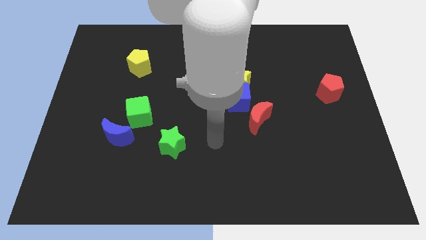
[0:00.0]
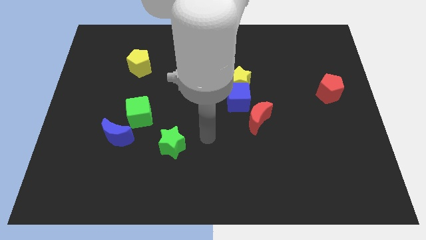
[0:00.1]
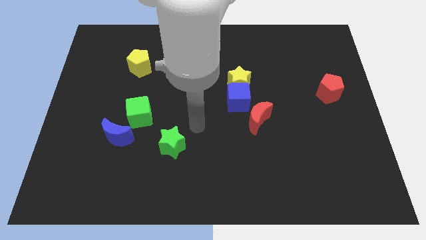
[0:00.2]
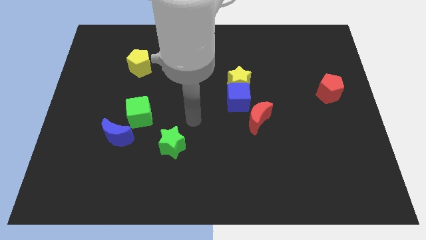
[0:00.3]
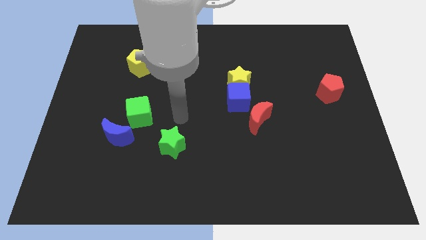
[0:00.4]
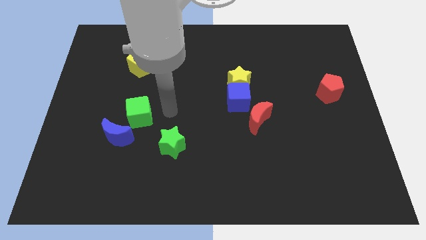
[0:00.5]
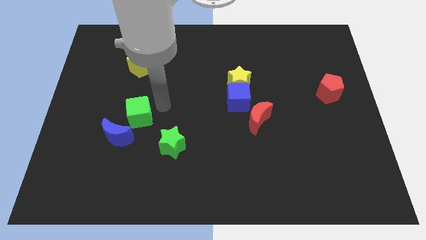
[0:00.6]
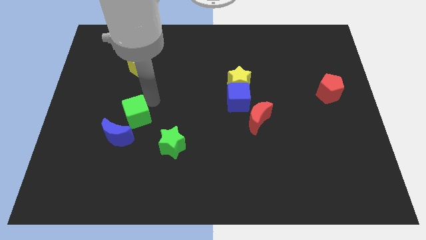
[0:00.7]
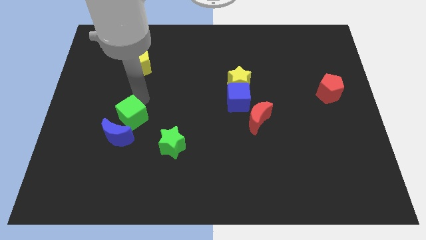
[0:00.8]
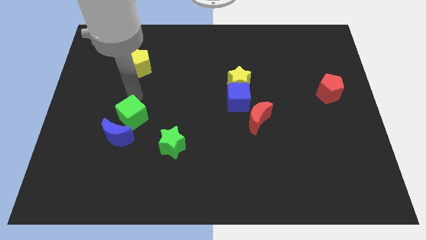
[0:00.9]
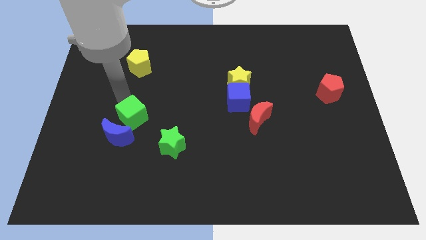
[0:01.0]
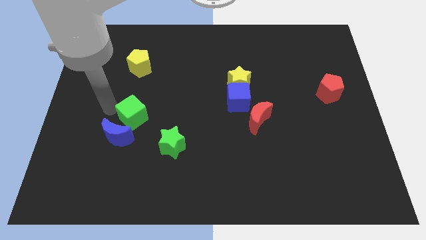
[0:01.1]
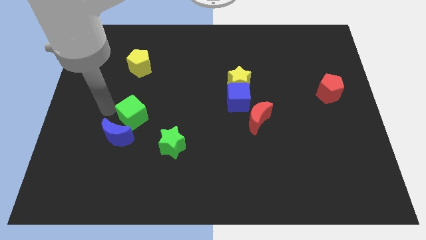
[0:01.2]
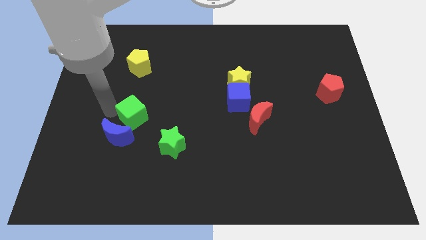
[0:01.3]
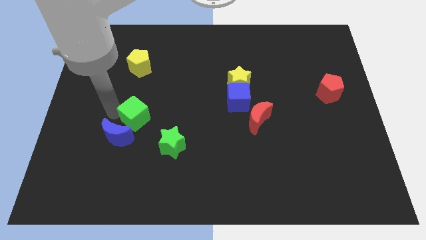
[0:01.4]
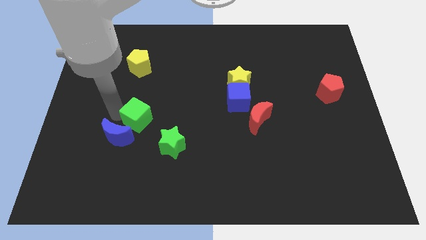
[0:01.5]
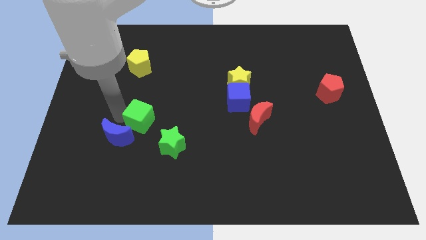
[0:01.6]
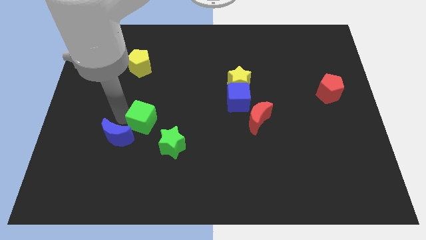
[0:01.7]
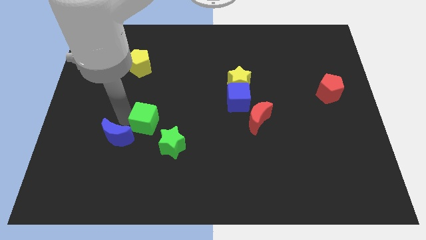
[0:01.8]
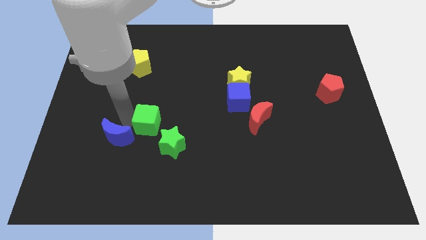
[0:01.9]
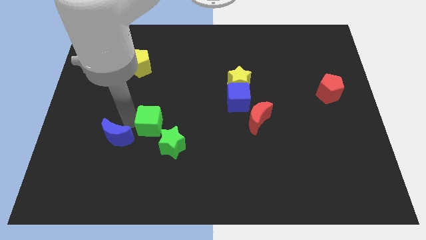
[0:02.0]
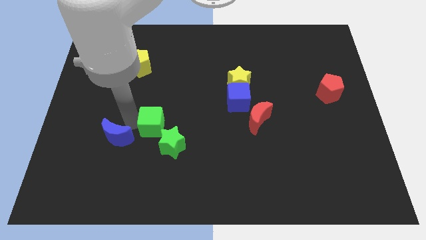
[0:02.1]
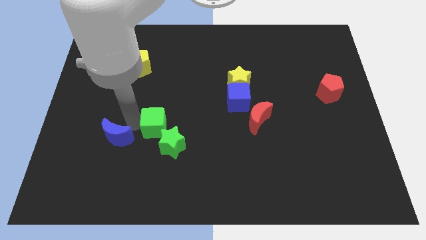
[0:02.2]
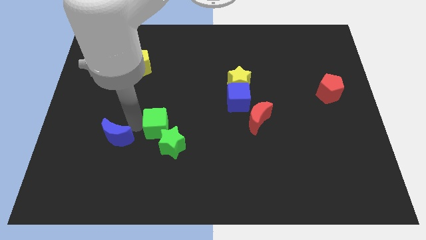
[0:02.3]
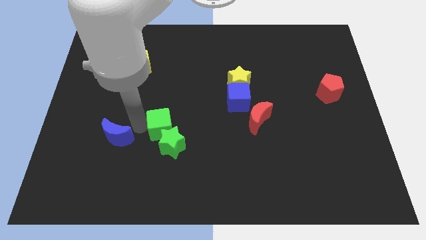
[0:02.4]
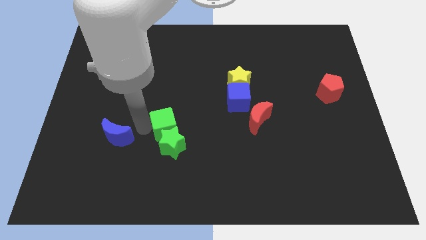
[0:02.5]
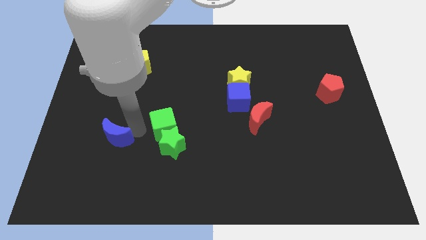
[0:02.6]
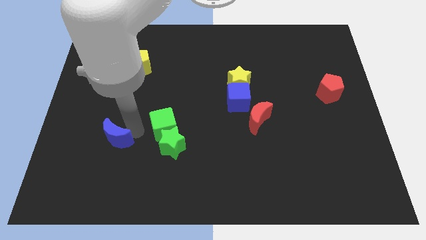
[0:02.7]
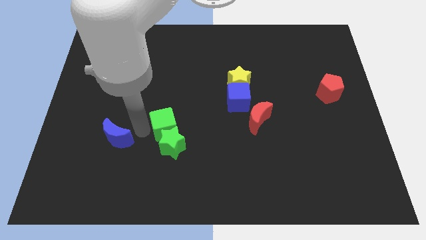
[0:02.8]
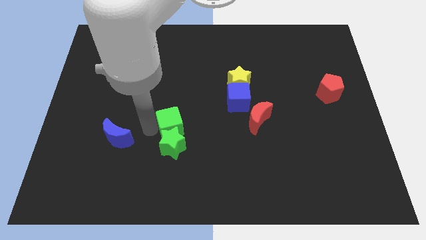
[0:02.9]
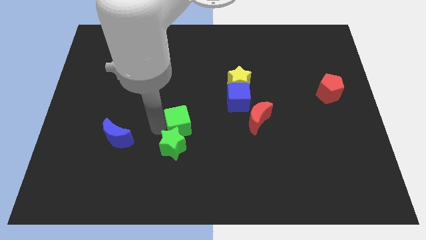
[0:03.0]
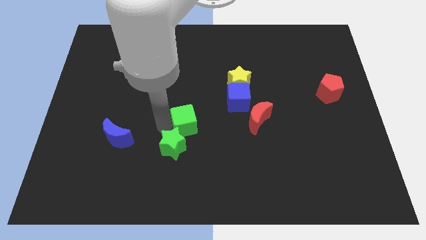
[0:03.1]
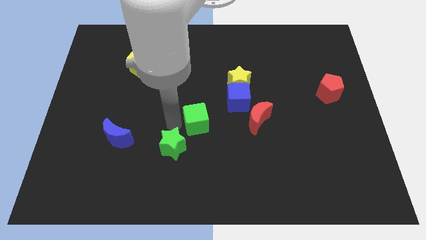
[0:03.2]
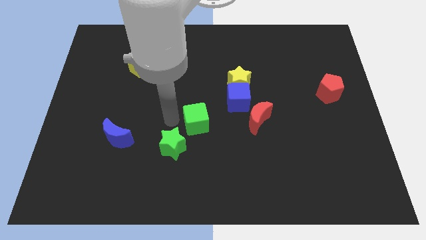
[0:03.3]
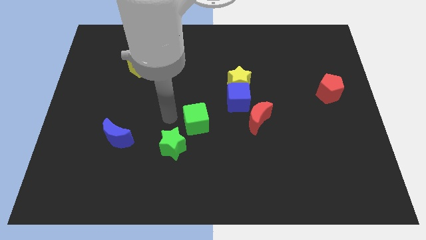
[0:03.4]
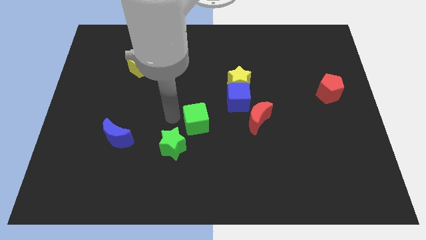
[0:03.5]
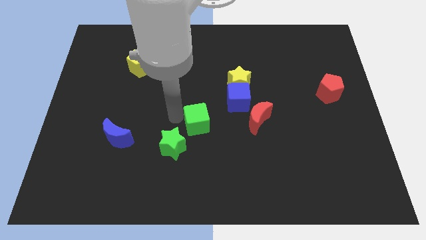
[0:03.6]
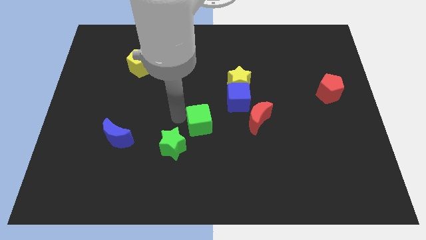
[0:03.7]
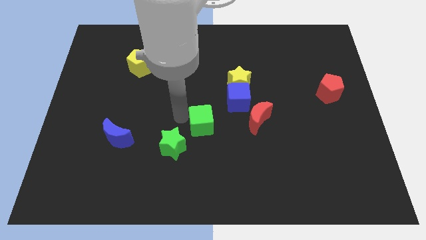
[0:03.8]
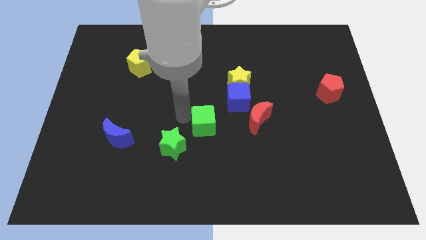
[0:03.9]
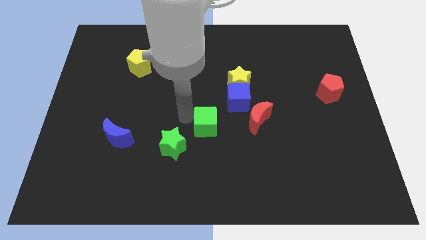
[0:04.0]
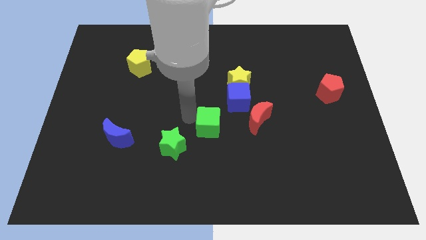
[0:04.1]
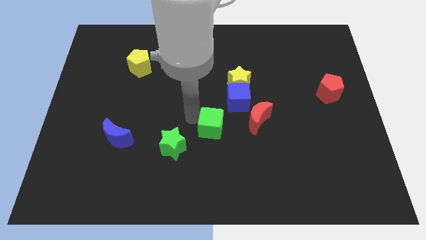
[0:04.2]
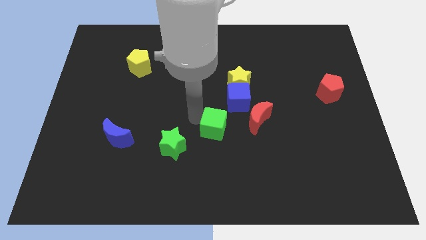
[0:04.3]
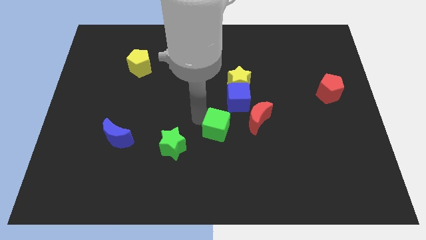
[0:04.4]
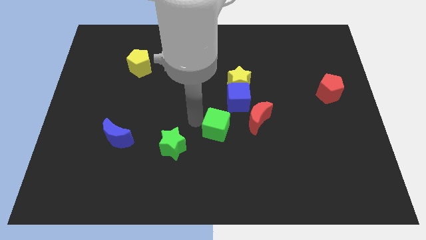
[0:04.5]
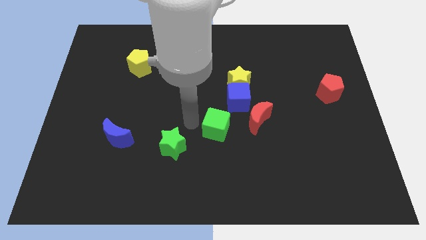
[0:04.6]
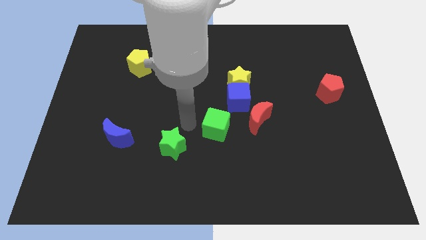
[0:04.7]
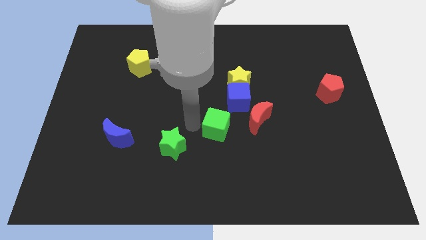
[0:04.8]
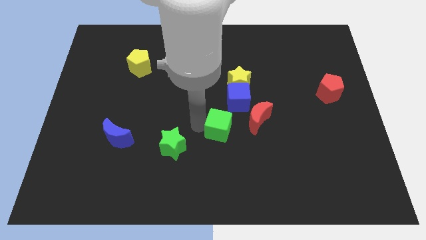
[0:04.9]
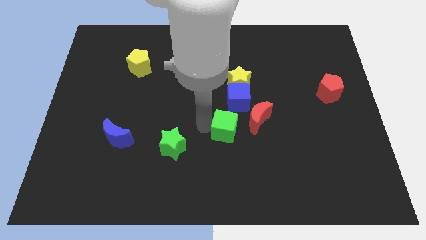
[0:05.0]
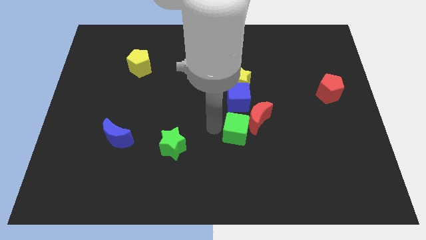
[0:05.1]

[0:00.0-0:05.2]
push the green cube right

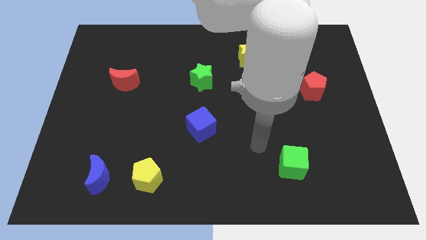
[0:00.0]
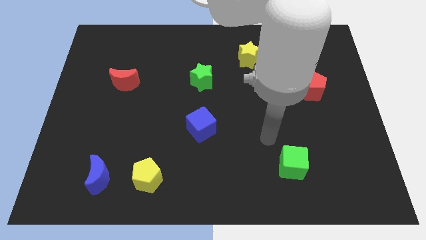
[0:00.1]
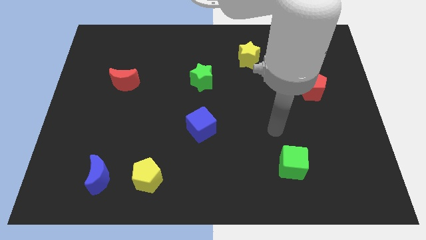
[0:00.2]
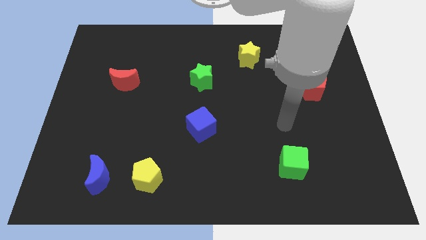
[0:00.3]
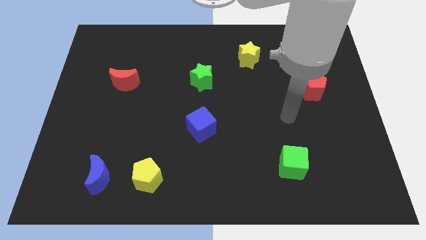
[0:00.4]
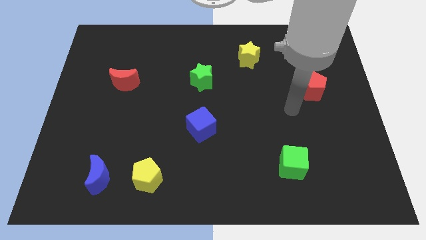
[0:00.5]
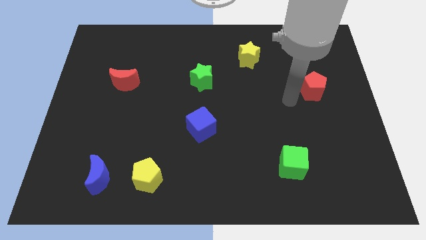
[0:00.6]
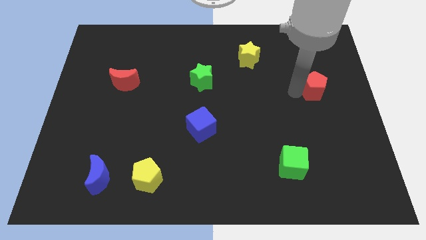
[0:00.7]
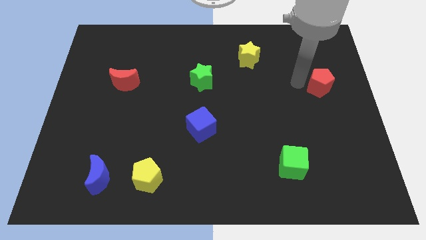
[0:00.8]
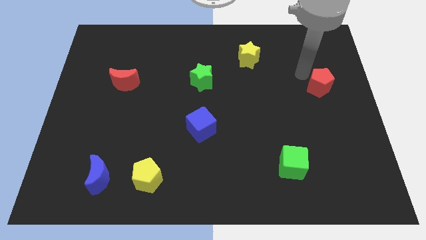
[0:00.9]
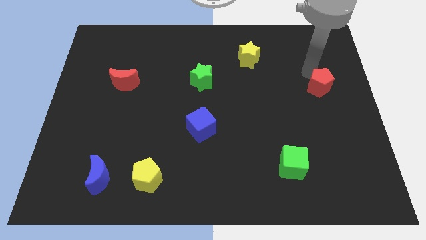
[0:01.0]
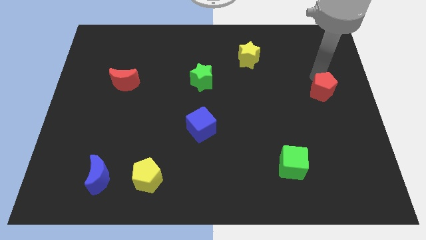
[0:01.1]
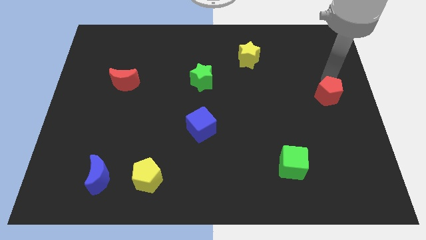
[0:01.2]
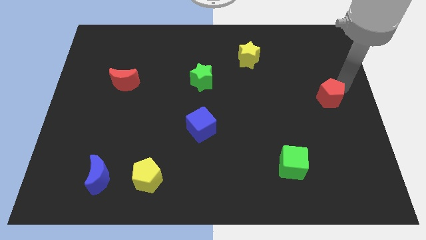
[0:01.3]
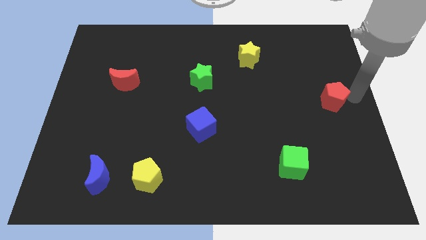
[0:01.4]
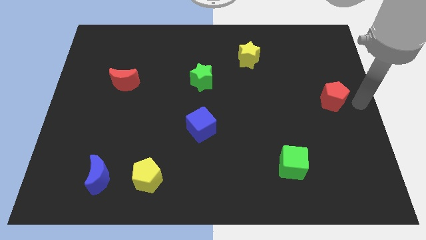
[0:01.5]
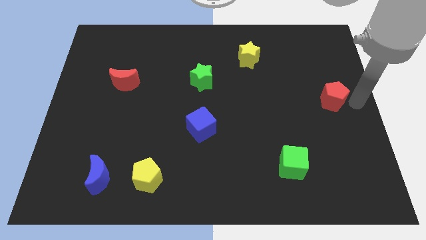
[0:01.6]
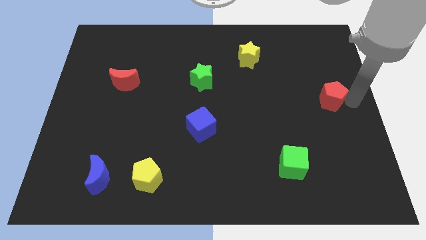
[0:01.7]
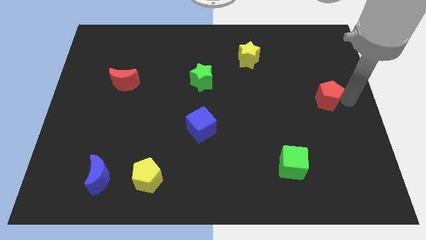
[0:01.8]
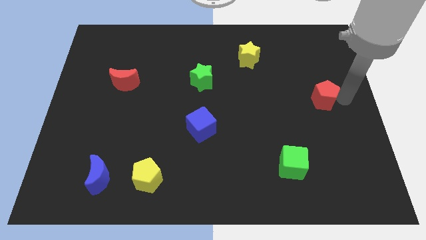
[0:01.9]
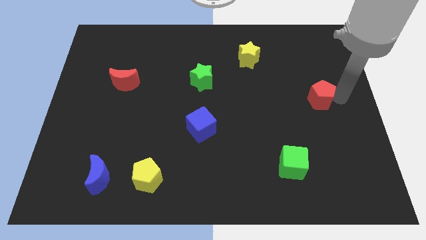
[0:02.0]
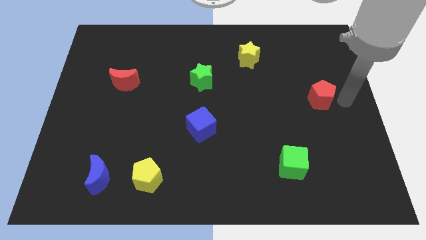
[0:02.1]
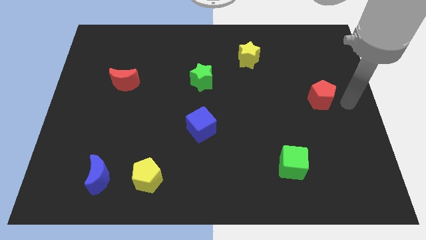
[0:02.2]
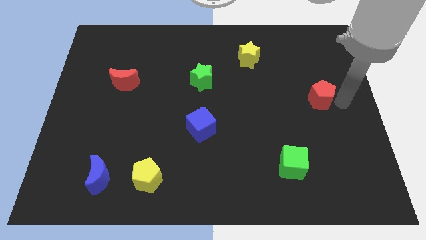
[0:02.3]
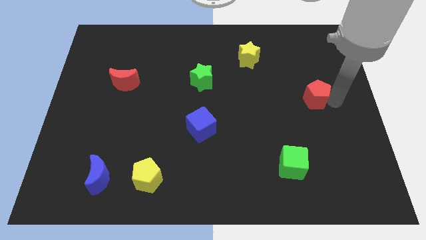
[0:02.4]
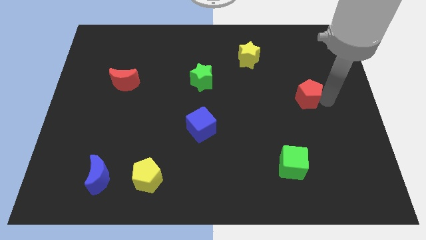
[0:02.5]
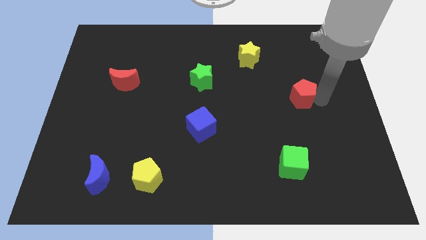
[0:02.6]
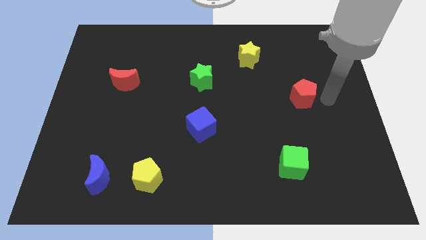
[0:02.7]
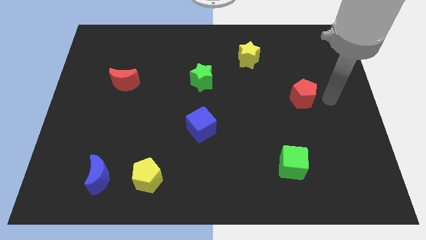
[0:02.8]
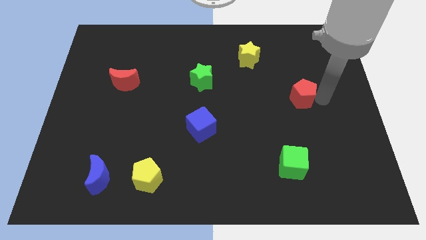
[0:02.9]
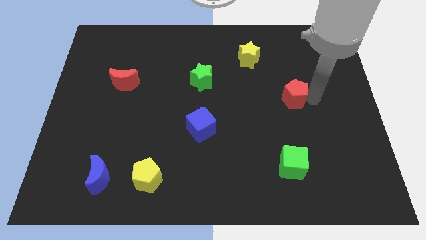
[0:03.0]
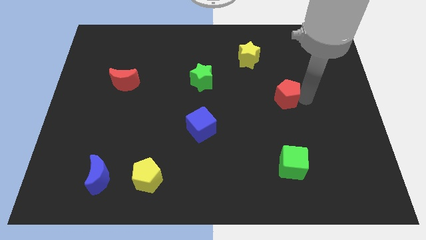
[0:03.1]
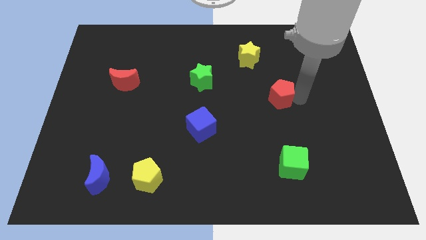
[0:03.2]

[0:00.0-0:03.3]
slightly push the red pentagon to the left
